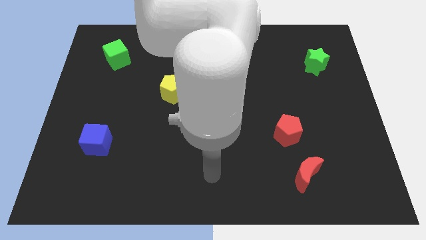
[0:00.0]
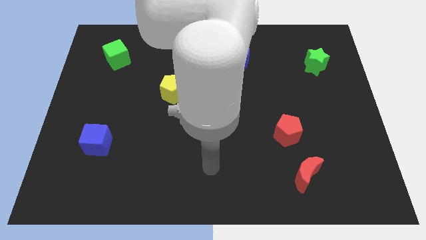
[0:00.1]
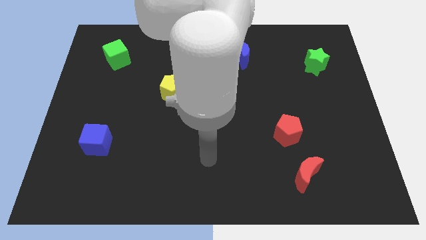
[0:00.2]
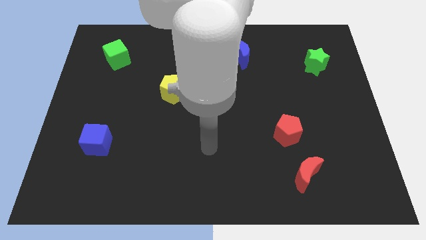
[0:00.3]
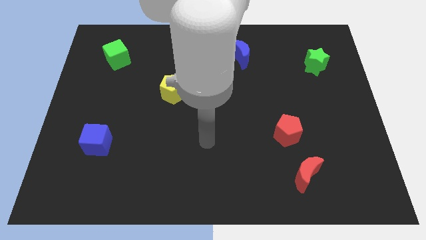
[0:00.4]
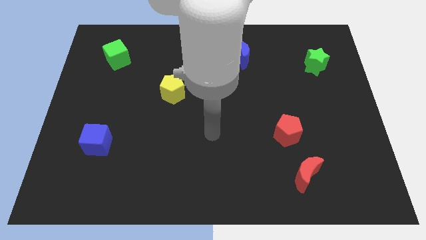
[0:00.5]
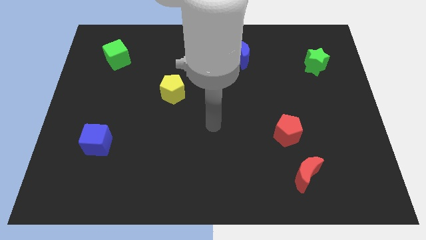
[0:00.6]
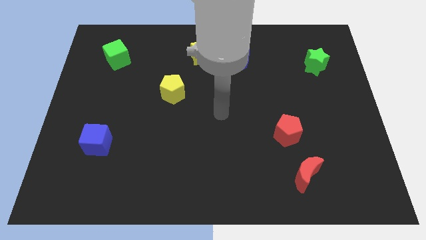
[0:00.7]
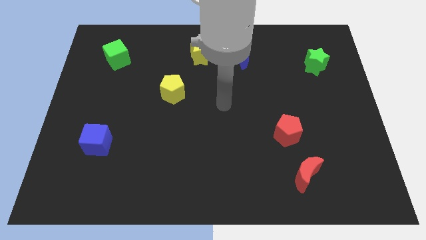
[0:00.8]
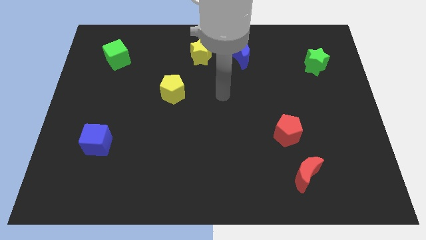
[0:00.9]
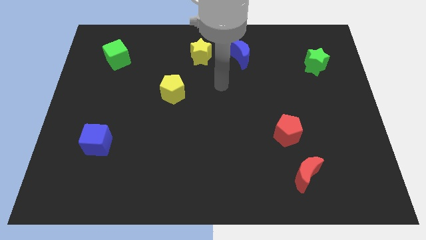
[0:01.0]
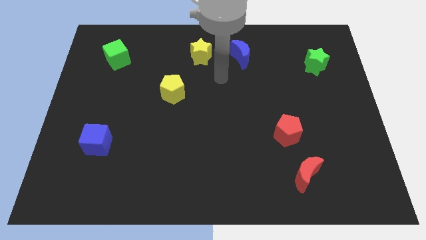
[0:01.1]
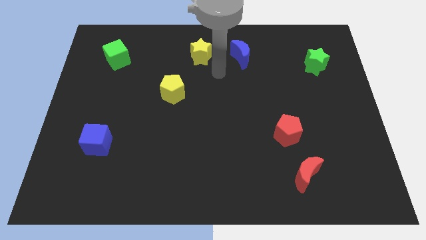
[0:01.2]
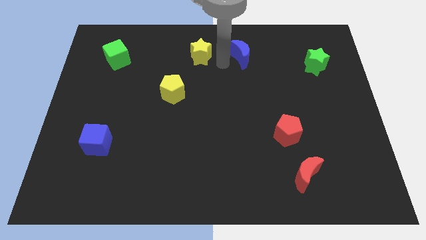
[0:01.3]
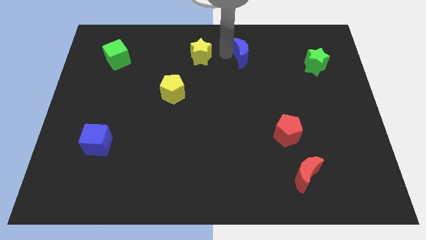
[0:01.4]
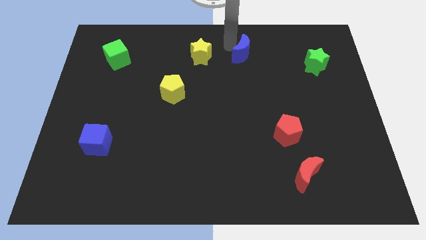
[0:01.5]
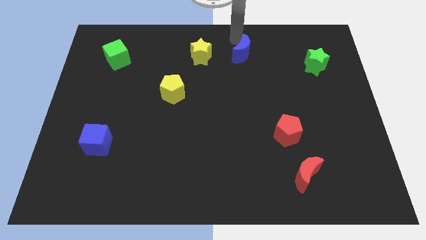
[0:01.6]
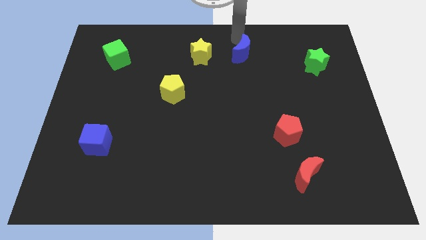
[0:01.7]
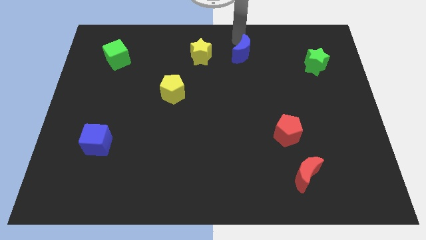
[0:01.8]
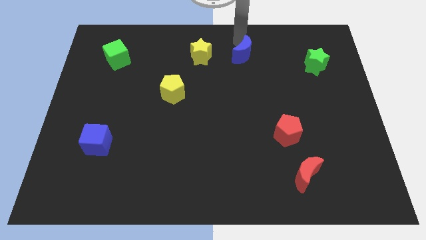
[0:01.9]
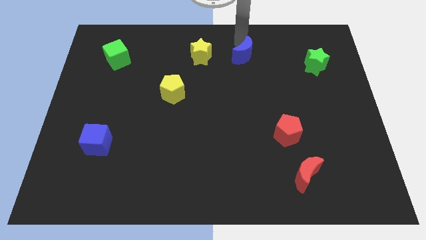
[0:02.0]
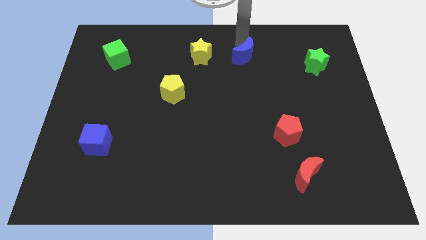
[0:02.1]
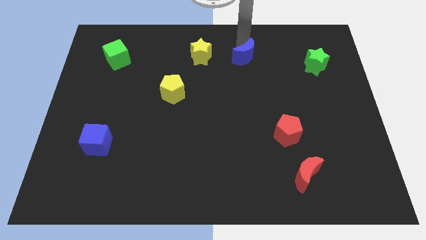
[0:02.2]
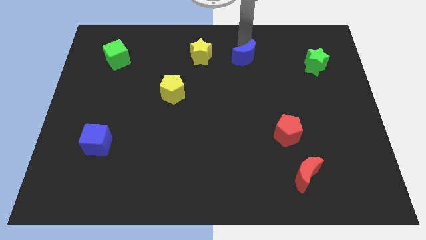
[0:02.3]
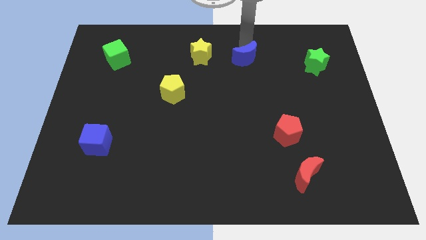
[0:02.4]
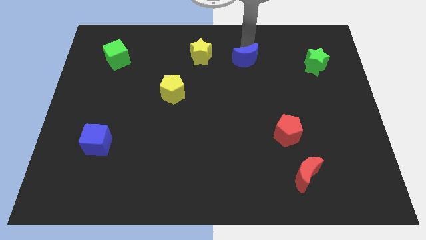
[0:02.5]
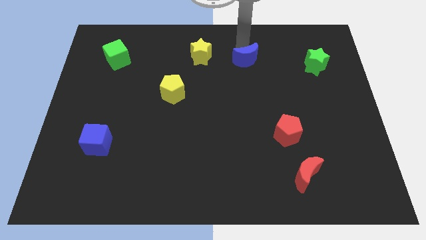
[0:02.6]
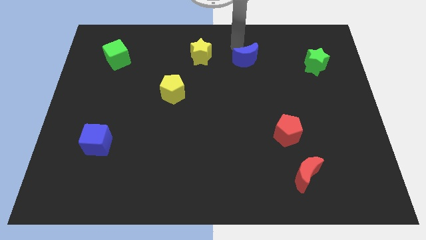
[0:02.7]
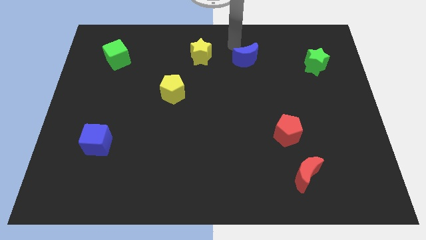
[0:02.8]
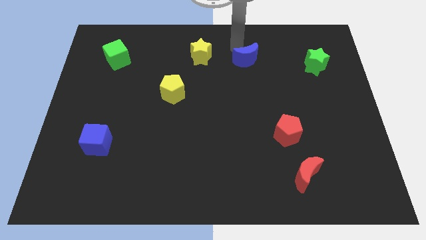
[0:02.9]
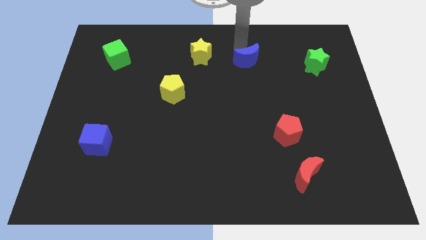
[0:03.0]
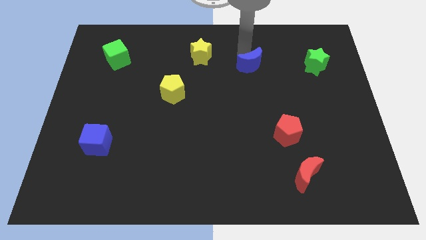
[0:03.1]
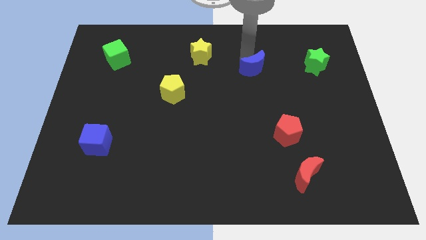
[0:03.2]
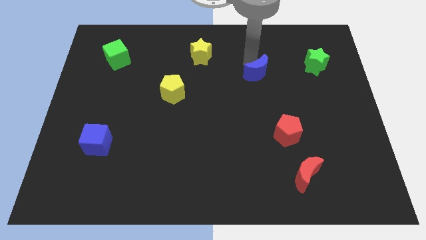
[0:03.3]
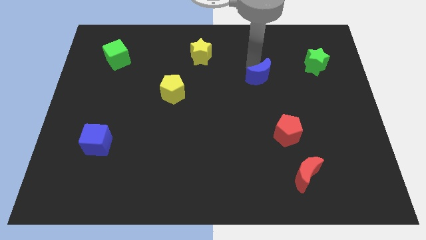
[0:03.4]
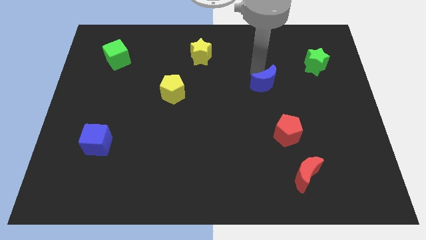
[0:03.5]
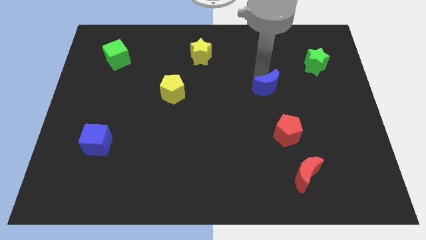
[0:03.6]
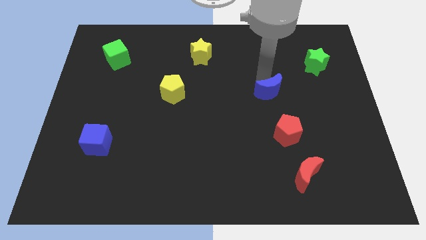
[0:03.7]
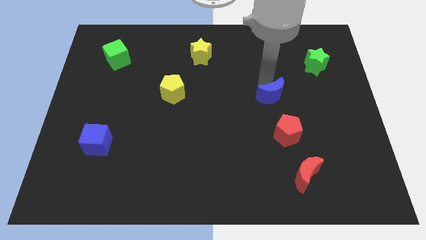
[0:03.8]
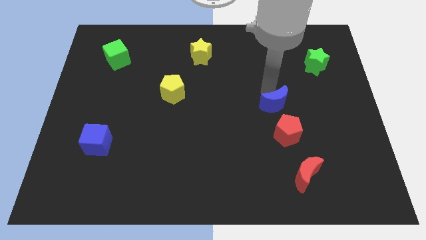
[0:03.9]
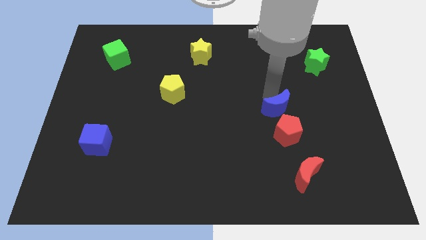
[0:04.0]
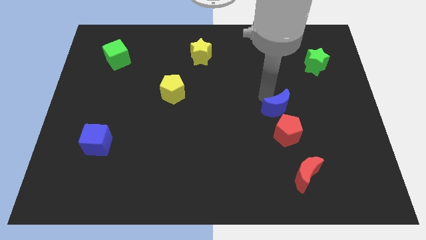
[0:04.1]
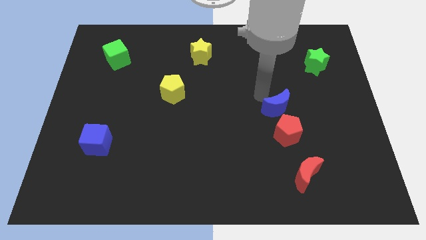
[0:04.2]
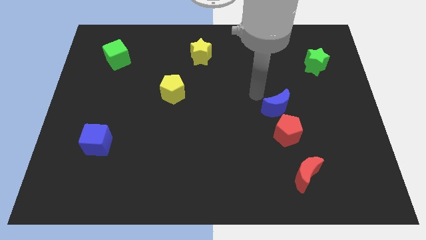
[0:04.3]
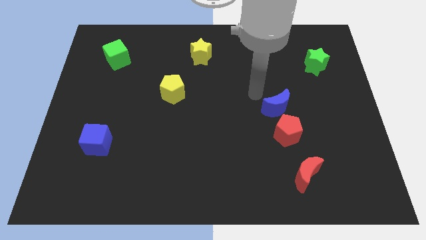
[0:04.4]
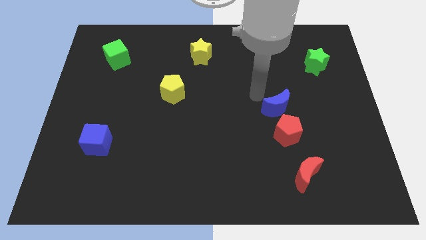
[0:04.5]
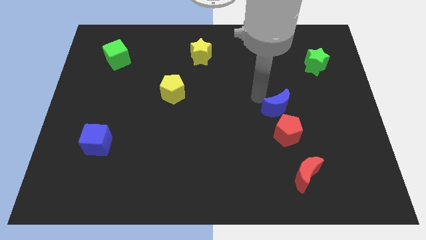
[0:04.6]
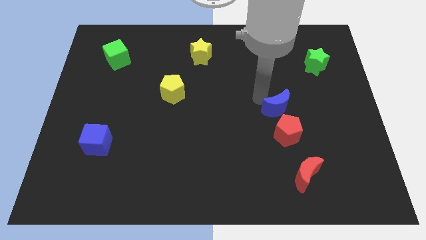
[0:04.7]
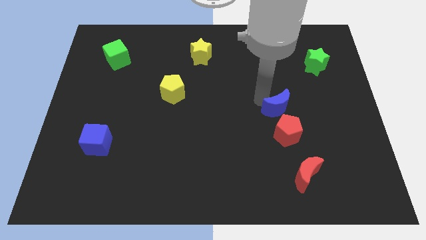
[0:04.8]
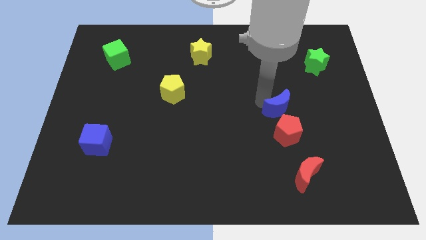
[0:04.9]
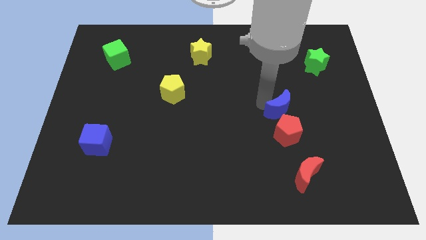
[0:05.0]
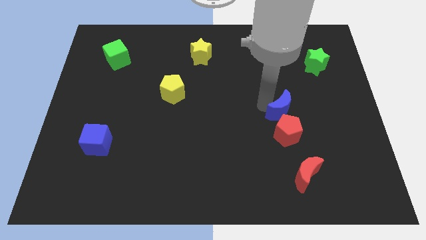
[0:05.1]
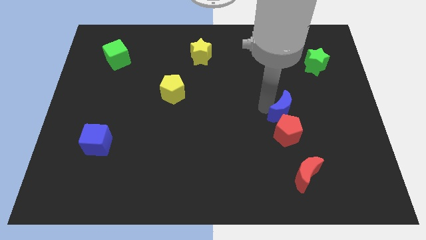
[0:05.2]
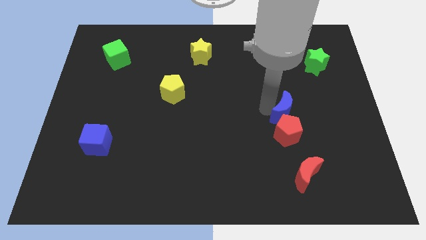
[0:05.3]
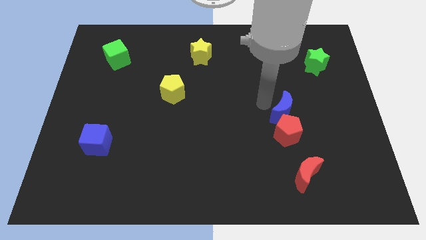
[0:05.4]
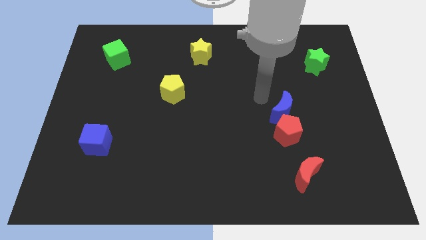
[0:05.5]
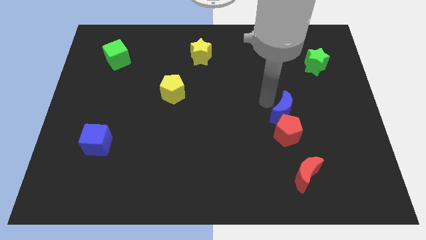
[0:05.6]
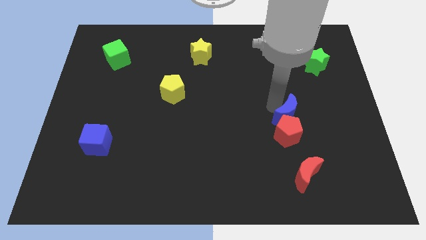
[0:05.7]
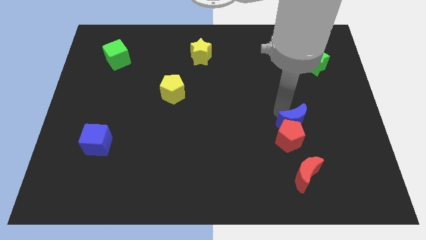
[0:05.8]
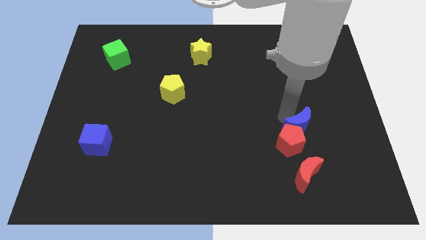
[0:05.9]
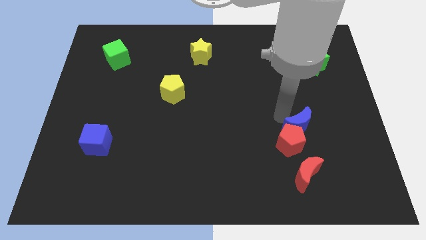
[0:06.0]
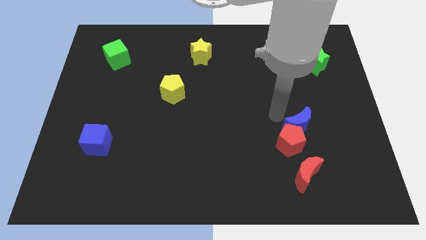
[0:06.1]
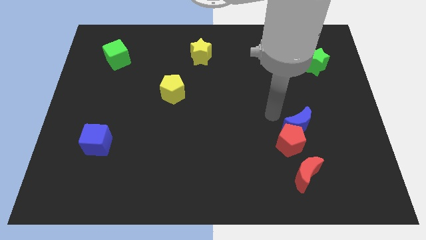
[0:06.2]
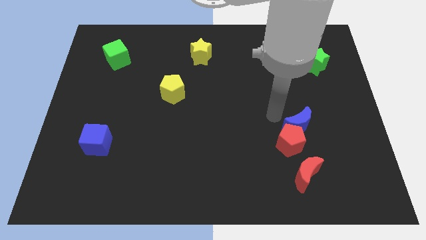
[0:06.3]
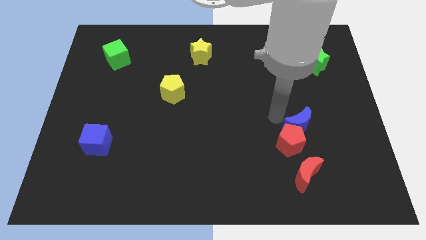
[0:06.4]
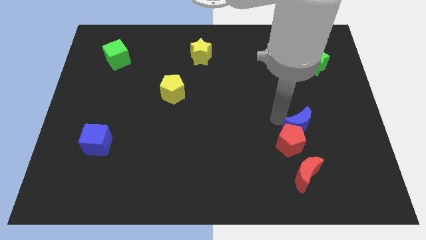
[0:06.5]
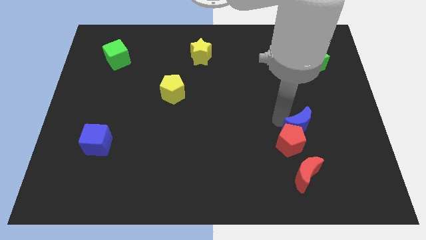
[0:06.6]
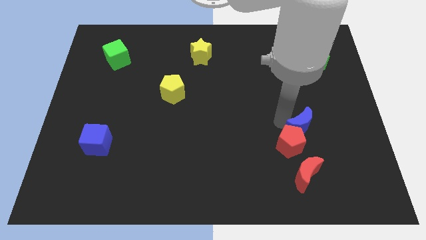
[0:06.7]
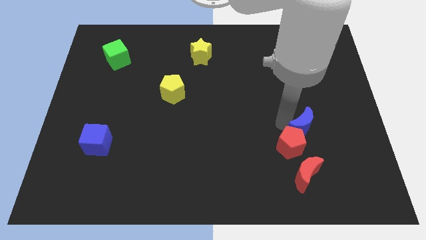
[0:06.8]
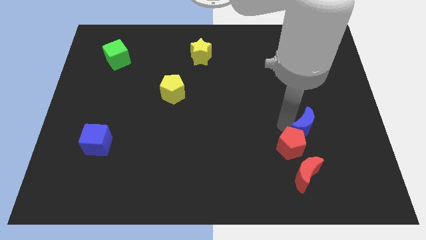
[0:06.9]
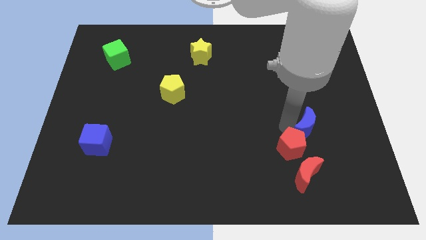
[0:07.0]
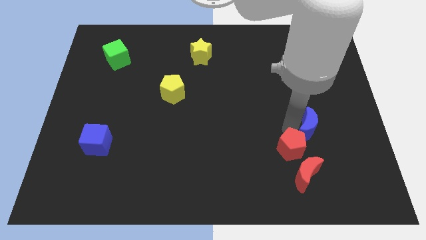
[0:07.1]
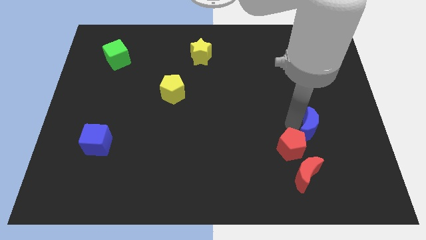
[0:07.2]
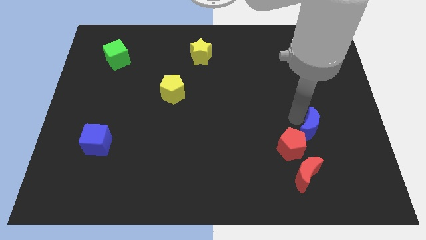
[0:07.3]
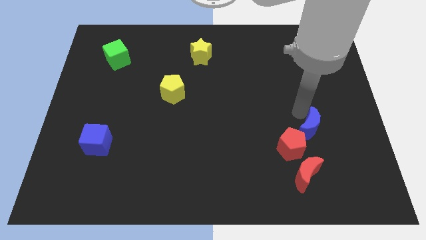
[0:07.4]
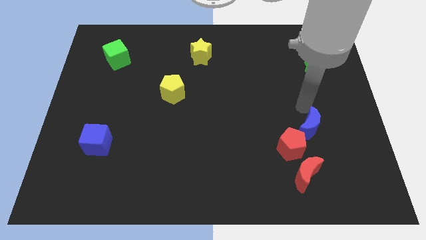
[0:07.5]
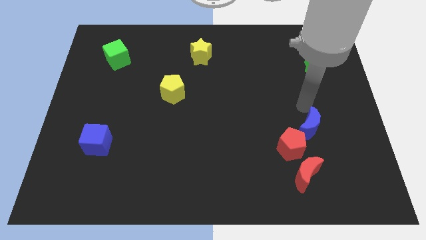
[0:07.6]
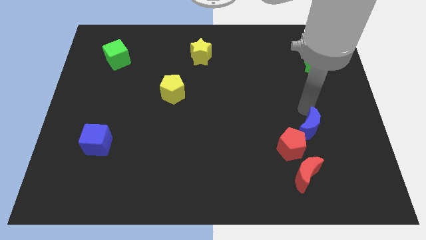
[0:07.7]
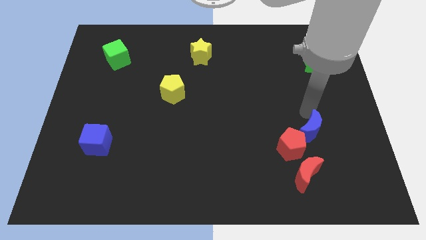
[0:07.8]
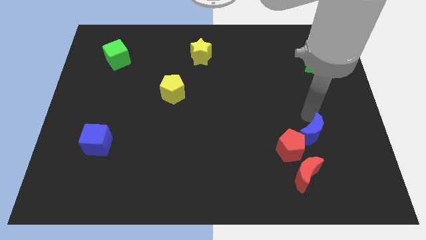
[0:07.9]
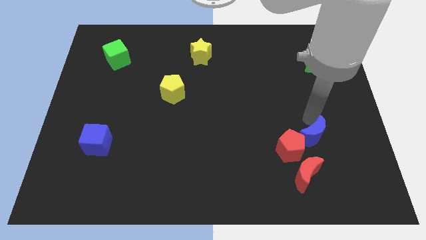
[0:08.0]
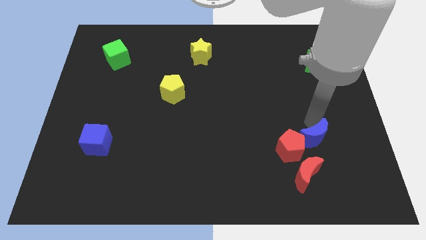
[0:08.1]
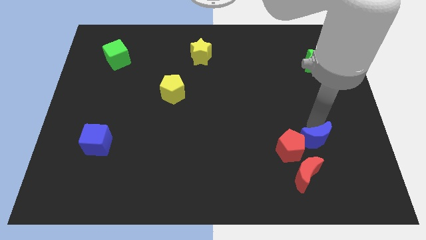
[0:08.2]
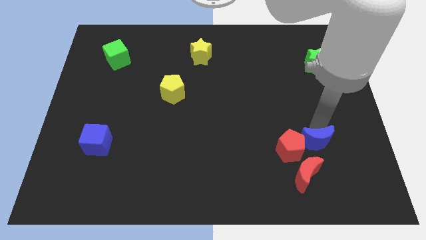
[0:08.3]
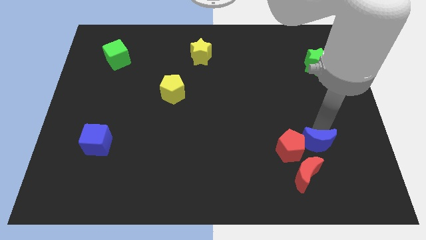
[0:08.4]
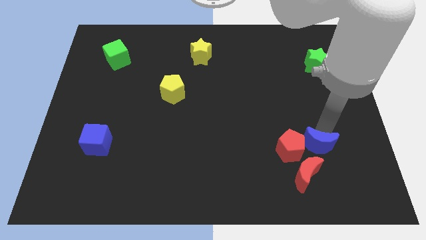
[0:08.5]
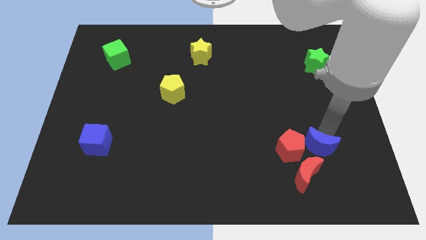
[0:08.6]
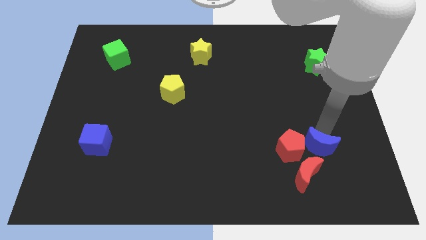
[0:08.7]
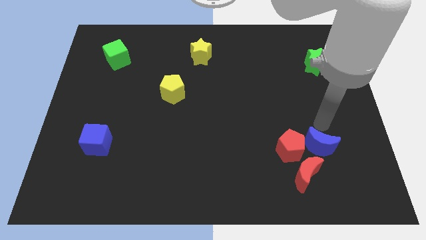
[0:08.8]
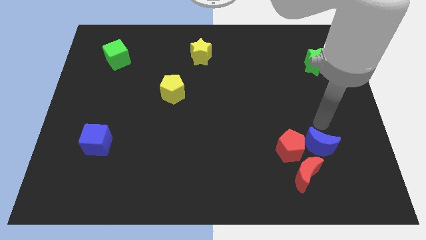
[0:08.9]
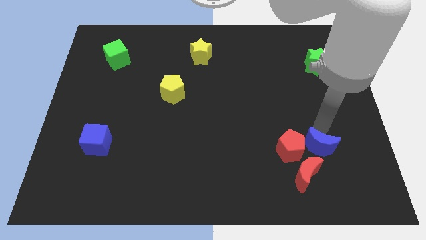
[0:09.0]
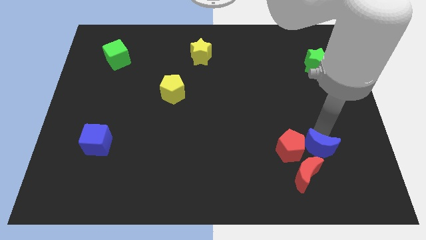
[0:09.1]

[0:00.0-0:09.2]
put the blue moon to the bottom right side of the red pentagon
